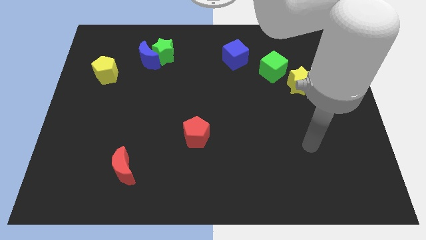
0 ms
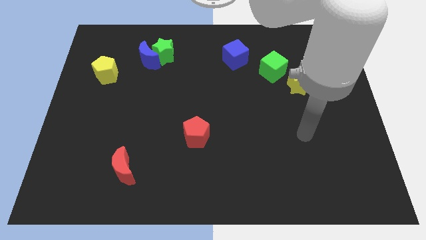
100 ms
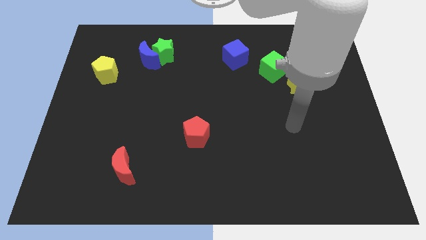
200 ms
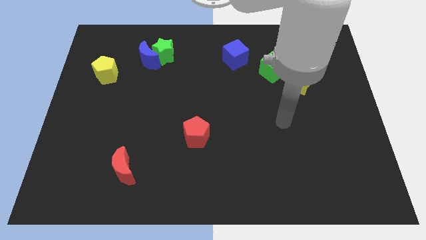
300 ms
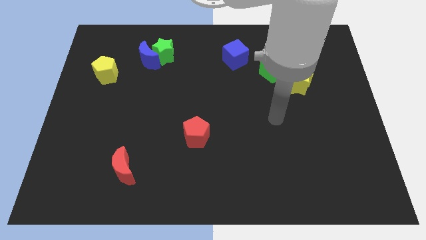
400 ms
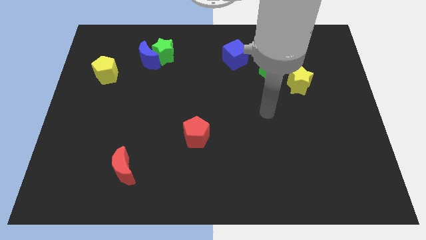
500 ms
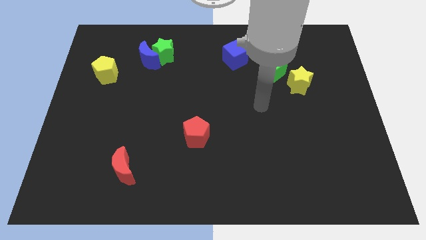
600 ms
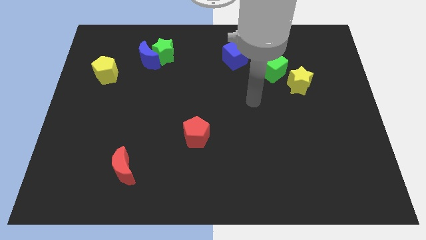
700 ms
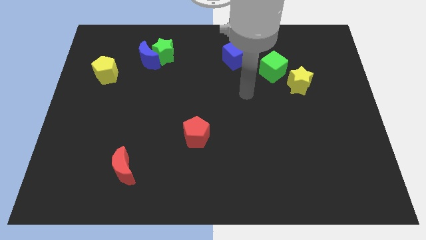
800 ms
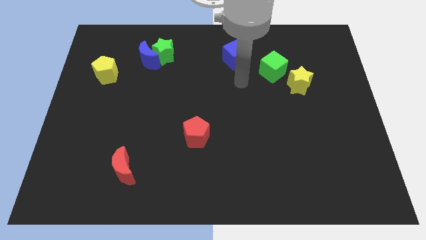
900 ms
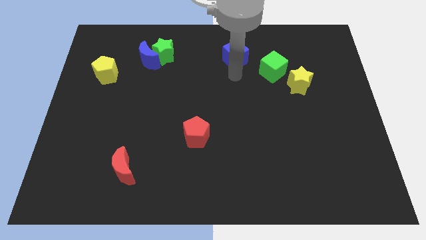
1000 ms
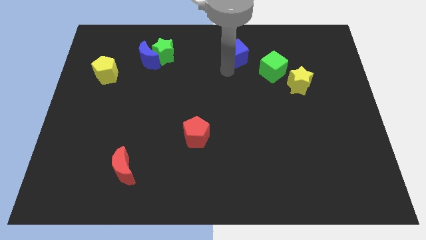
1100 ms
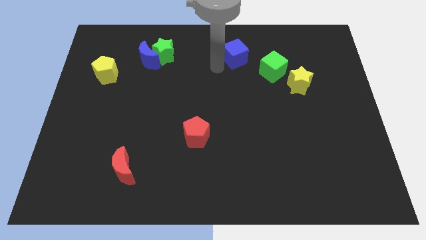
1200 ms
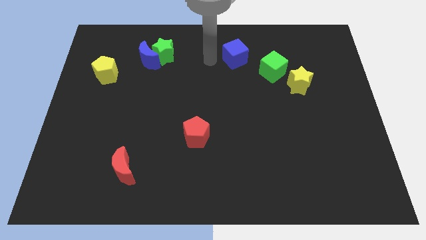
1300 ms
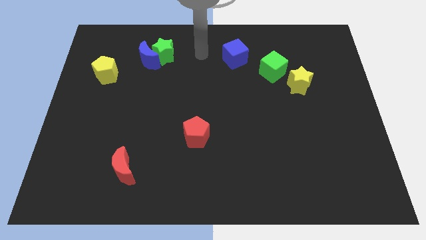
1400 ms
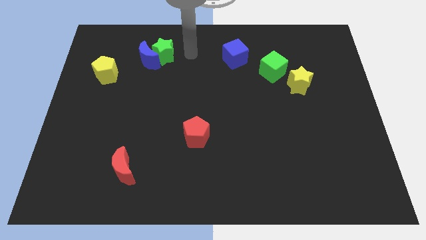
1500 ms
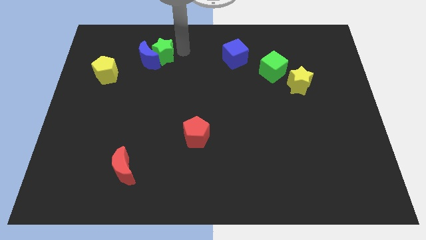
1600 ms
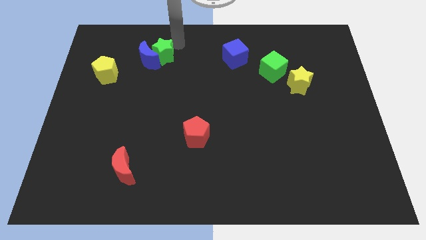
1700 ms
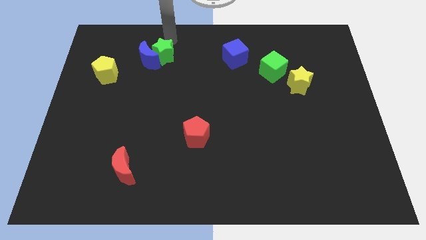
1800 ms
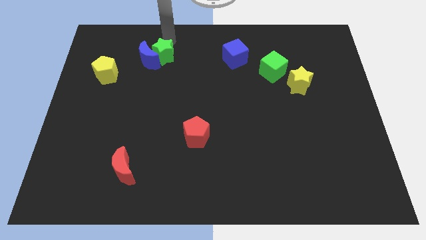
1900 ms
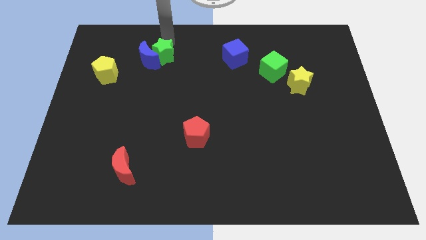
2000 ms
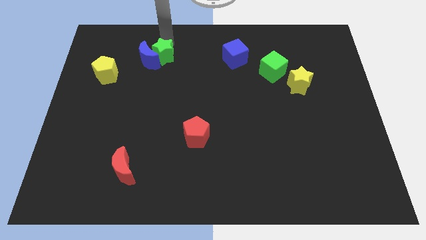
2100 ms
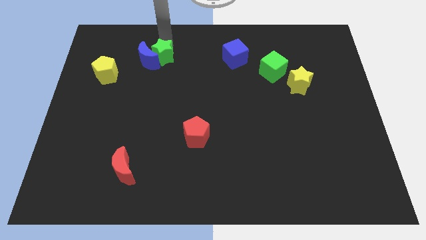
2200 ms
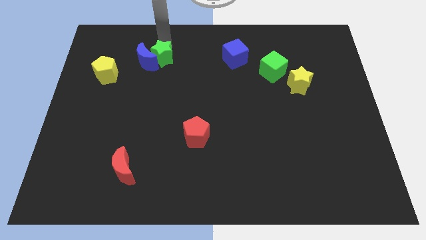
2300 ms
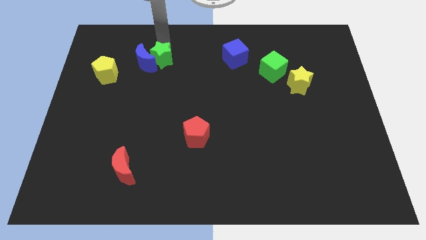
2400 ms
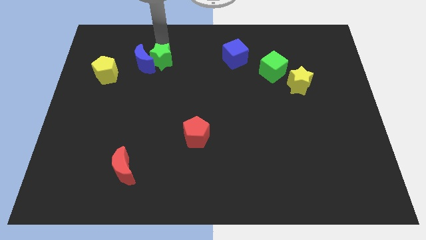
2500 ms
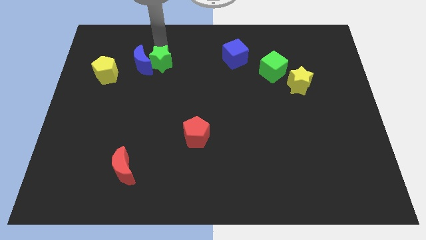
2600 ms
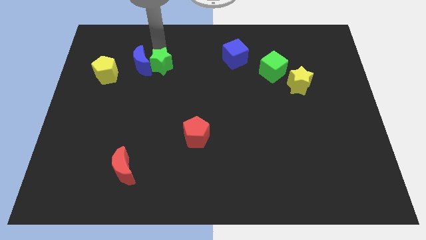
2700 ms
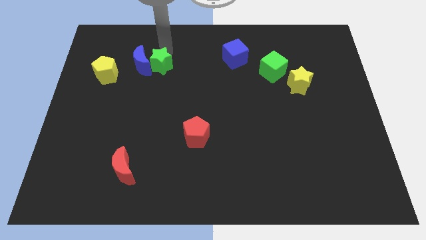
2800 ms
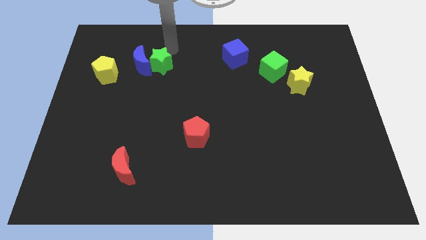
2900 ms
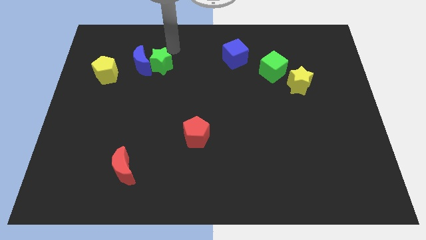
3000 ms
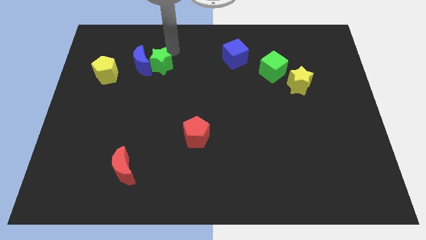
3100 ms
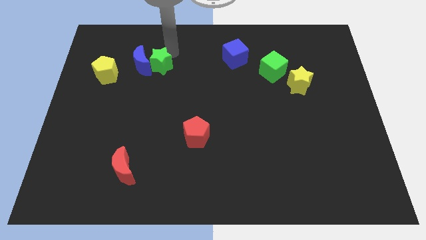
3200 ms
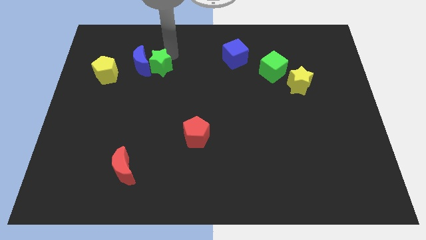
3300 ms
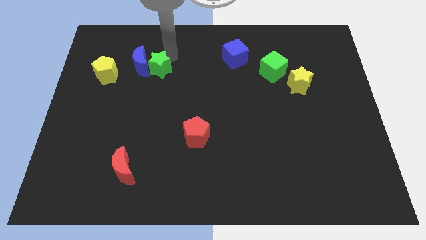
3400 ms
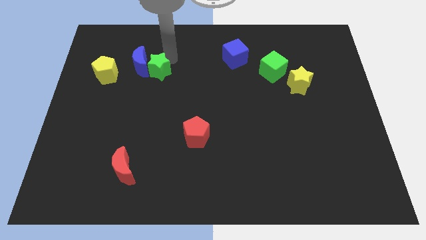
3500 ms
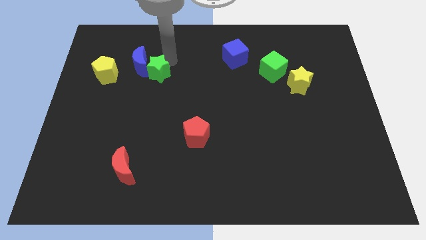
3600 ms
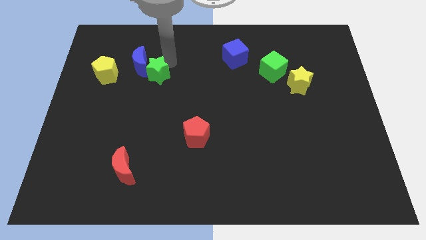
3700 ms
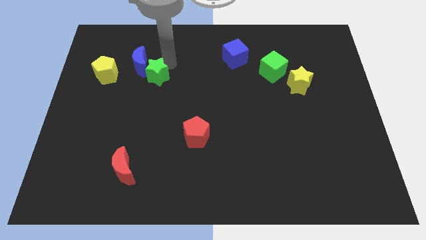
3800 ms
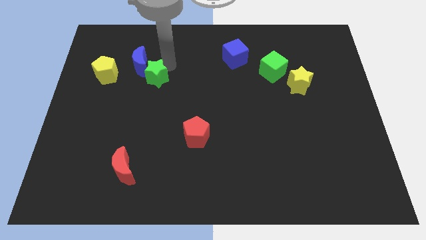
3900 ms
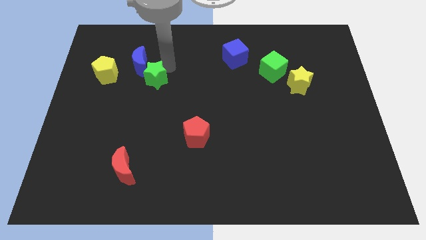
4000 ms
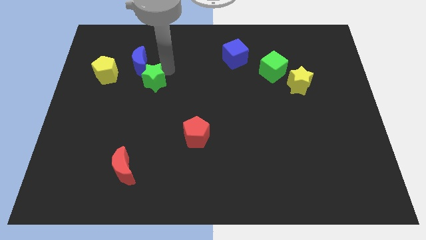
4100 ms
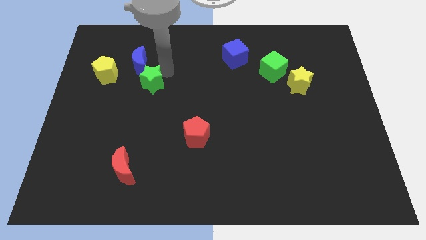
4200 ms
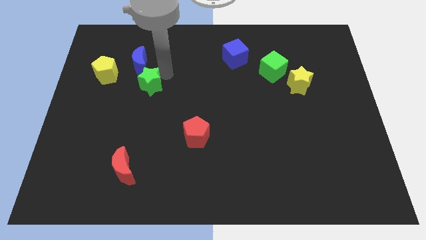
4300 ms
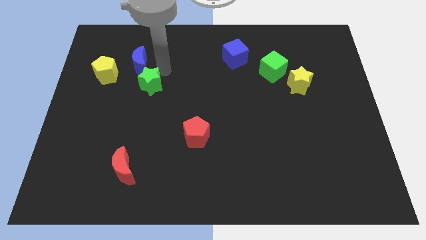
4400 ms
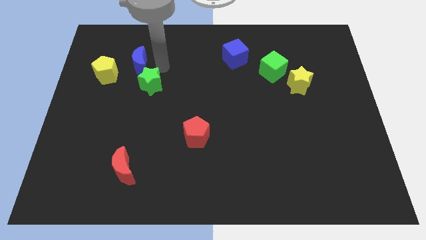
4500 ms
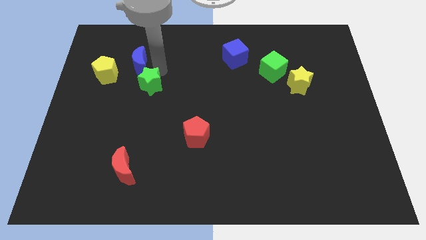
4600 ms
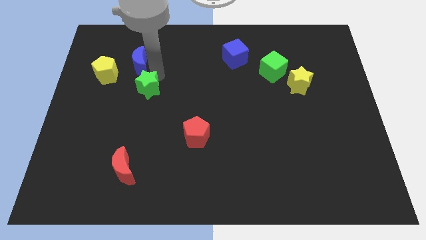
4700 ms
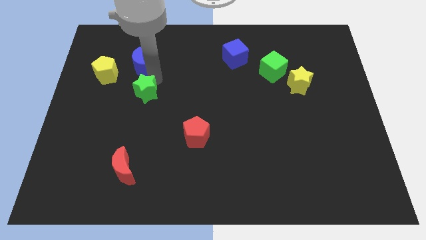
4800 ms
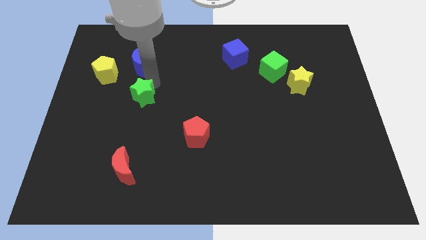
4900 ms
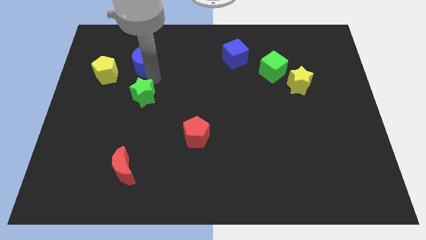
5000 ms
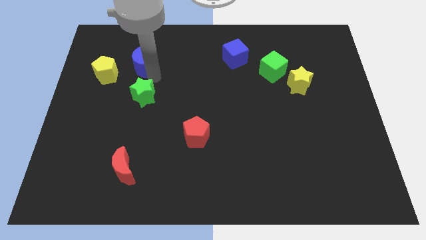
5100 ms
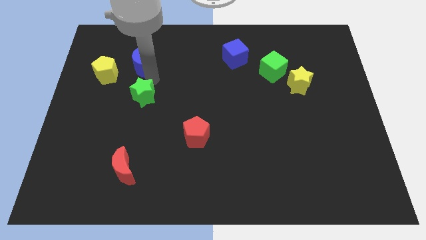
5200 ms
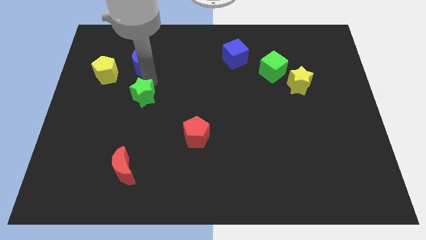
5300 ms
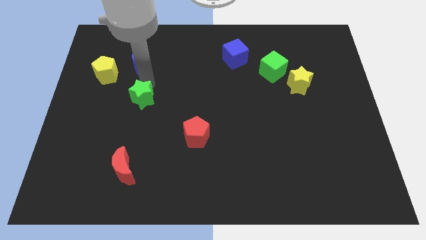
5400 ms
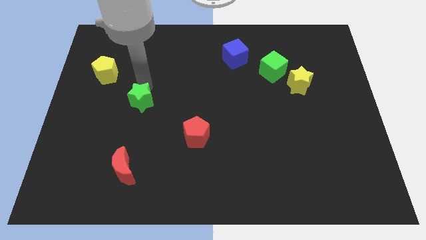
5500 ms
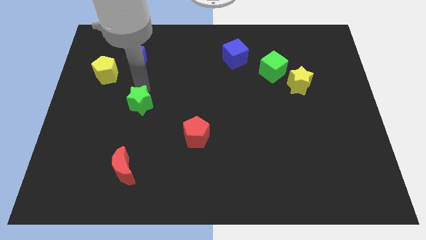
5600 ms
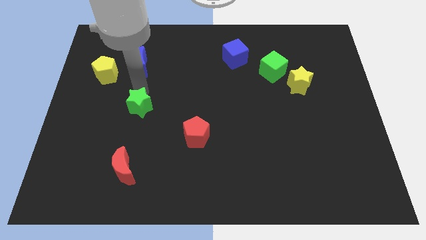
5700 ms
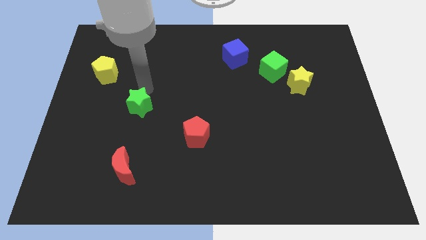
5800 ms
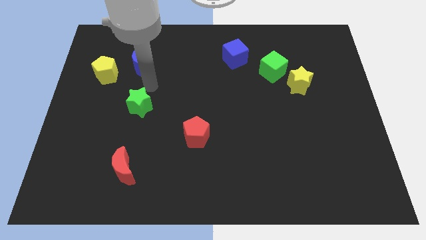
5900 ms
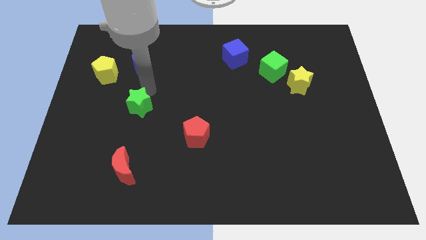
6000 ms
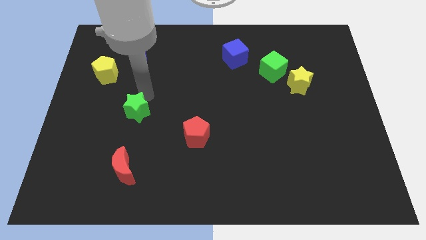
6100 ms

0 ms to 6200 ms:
move the green star to the top of the red moon
